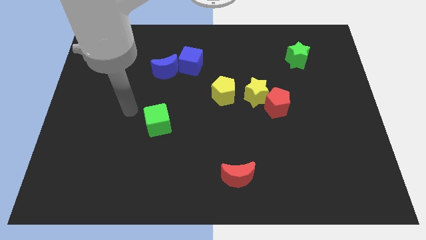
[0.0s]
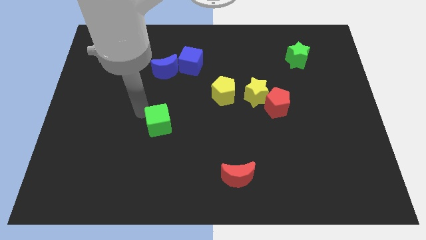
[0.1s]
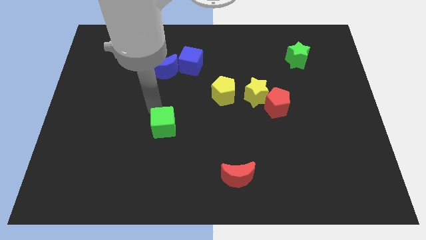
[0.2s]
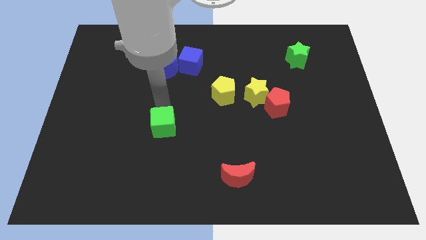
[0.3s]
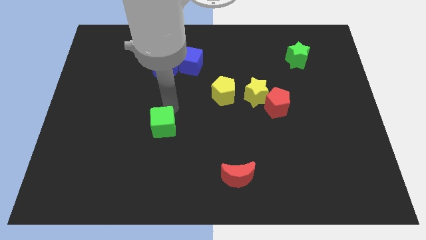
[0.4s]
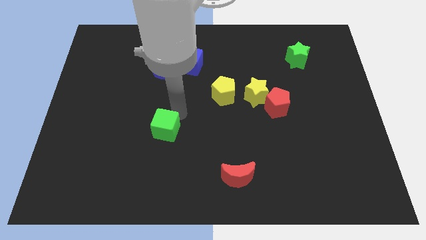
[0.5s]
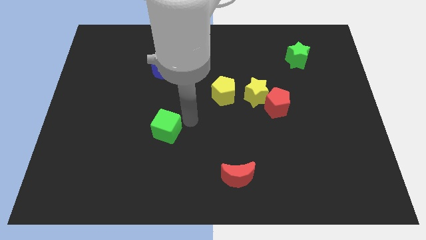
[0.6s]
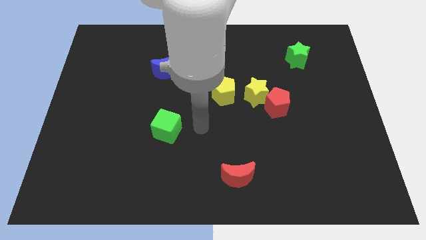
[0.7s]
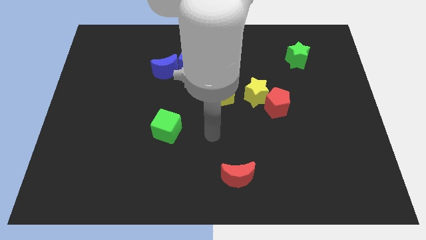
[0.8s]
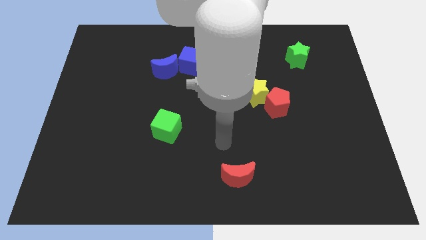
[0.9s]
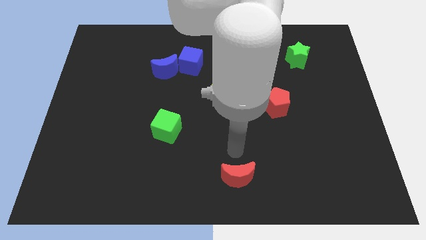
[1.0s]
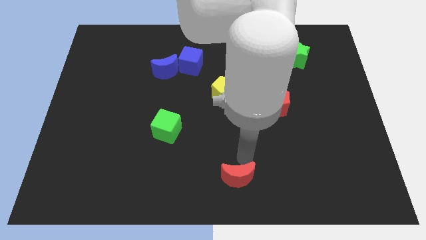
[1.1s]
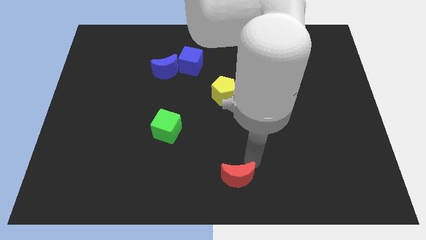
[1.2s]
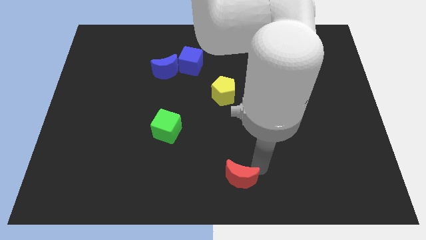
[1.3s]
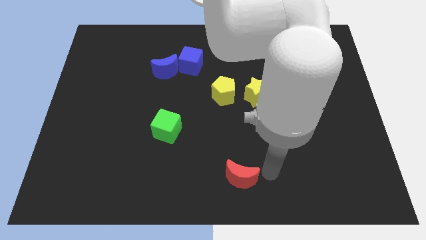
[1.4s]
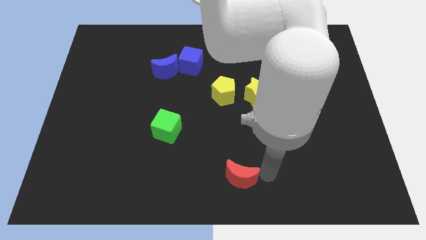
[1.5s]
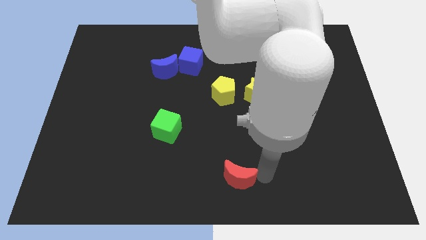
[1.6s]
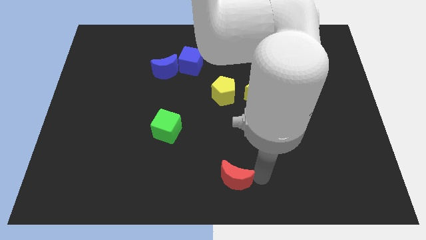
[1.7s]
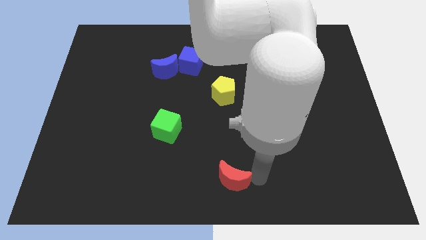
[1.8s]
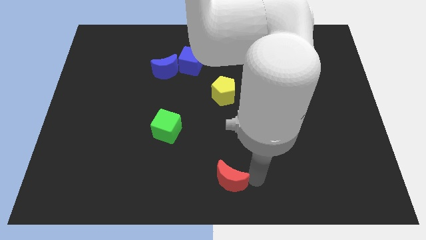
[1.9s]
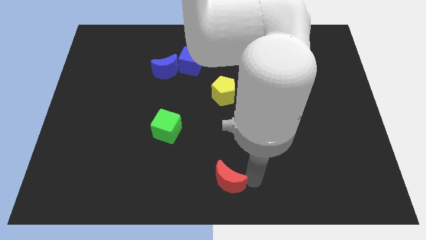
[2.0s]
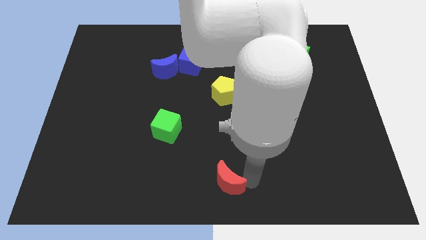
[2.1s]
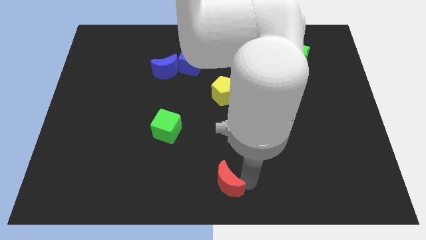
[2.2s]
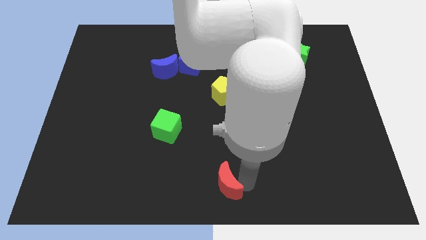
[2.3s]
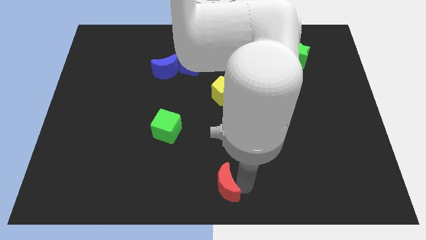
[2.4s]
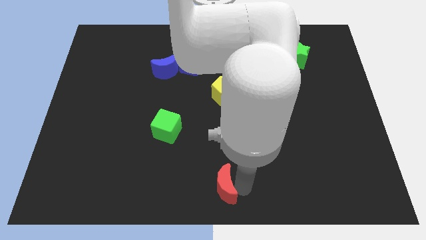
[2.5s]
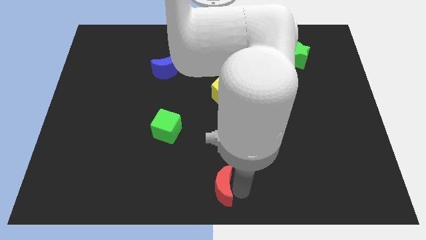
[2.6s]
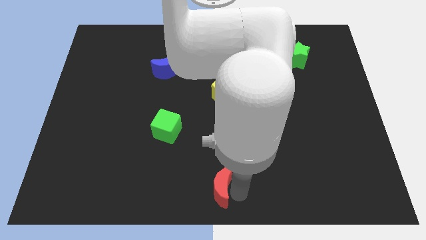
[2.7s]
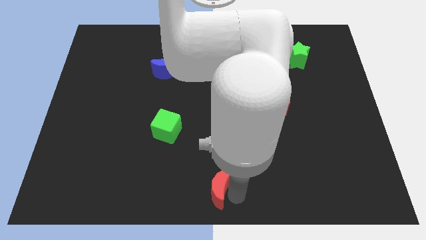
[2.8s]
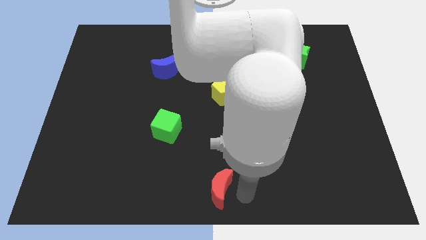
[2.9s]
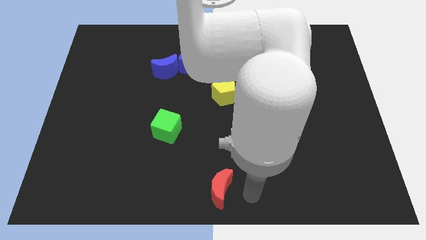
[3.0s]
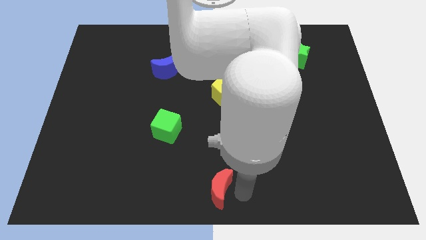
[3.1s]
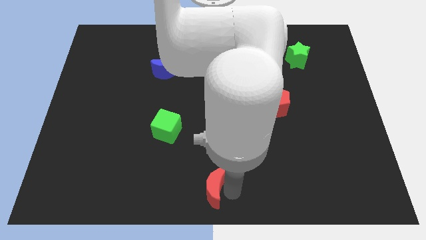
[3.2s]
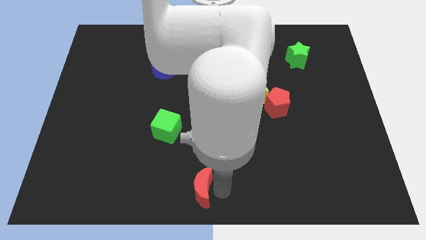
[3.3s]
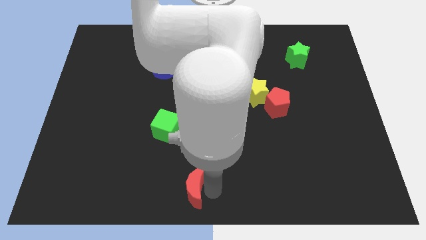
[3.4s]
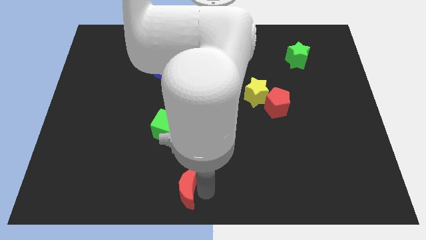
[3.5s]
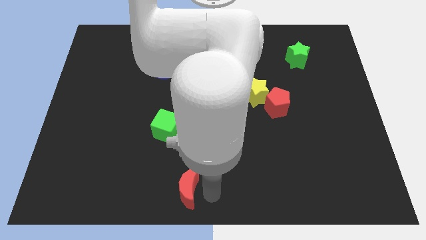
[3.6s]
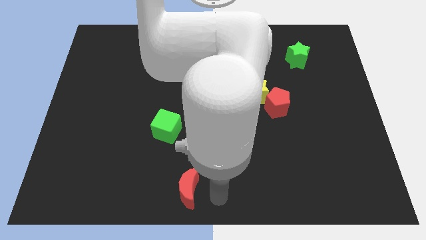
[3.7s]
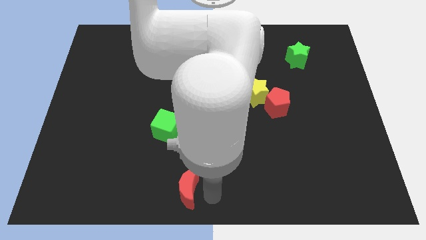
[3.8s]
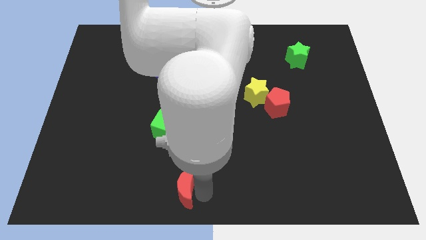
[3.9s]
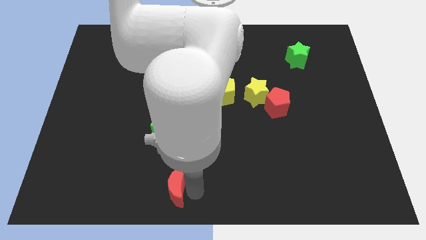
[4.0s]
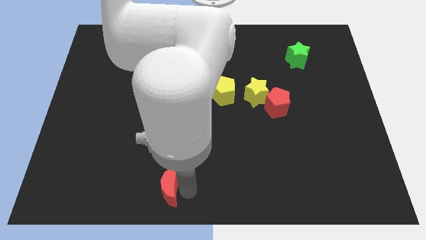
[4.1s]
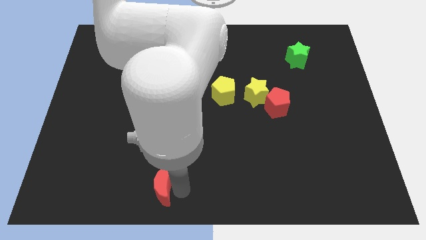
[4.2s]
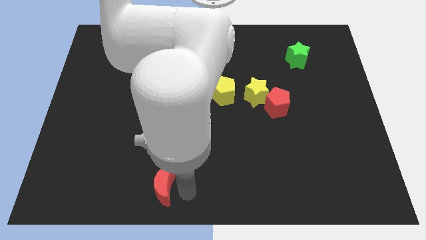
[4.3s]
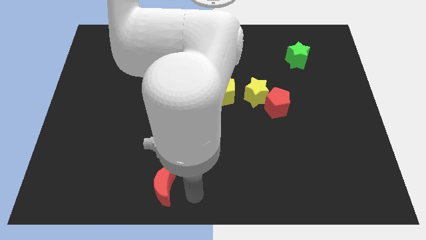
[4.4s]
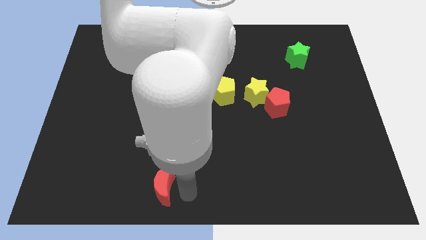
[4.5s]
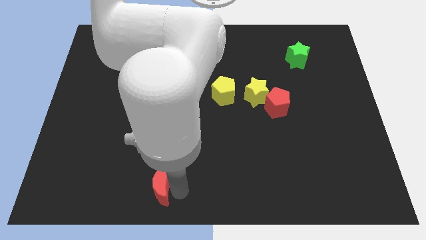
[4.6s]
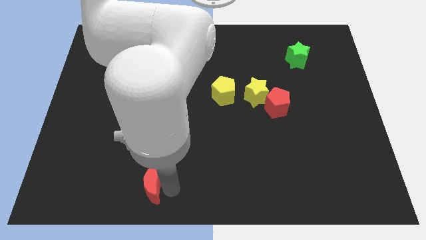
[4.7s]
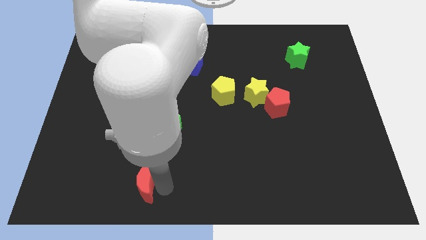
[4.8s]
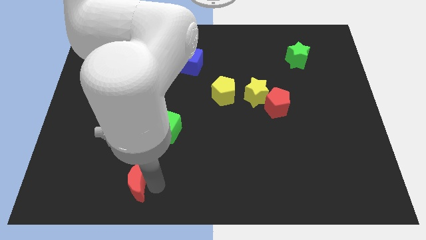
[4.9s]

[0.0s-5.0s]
move the red moon to the left

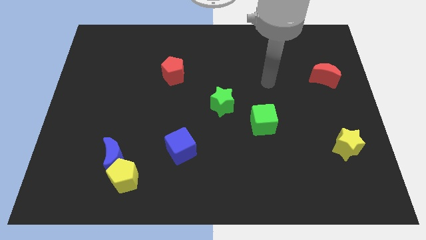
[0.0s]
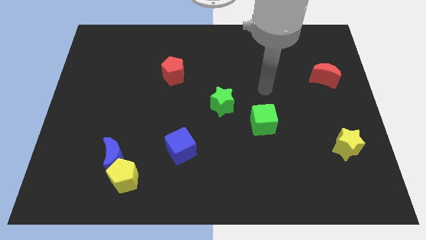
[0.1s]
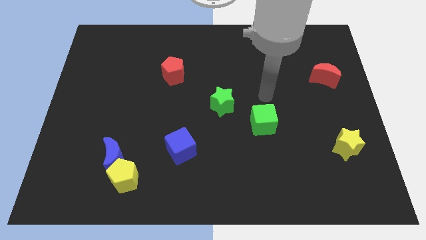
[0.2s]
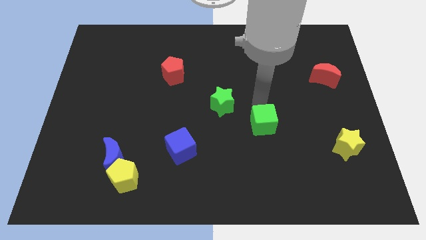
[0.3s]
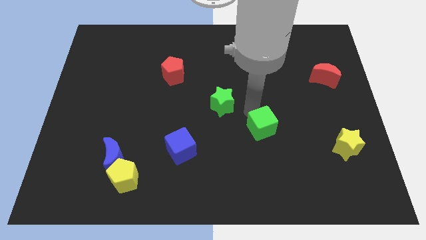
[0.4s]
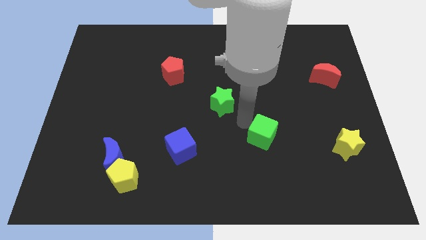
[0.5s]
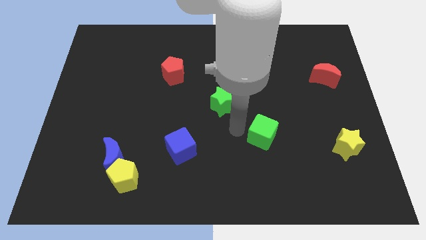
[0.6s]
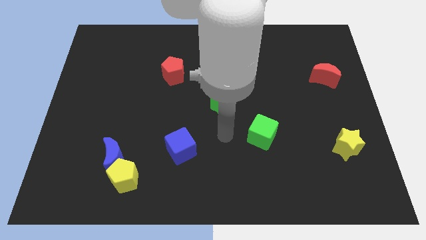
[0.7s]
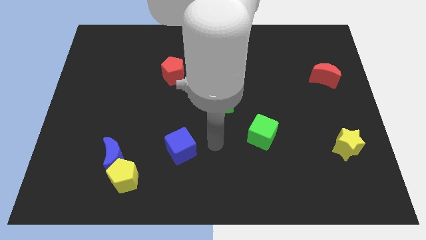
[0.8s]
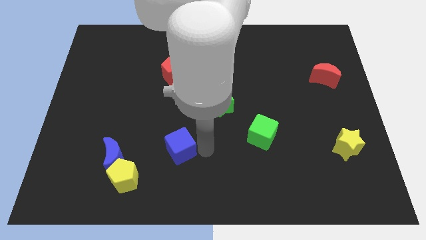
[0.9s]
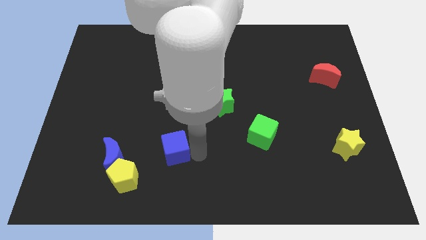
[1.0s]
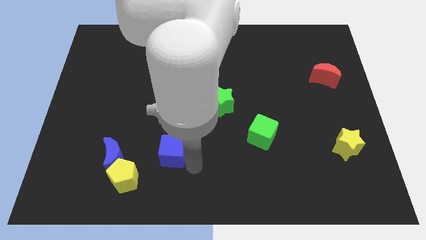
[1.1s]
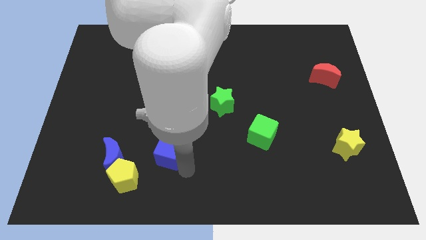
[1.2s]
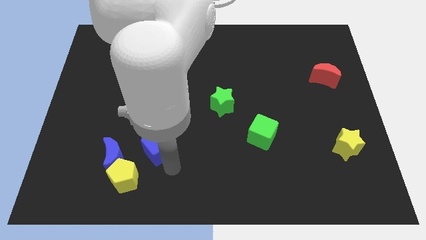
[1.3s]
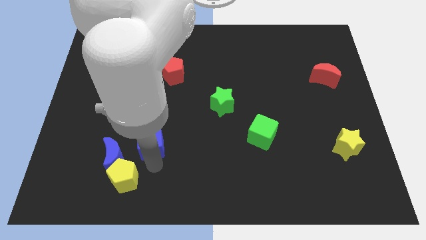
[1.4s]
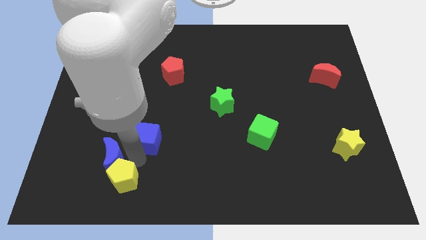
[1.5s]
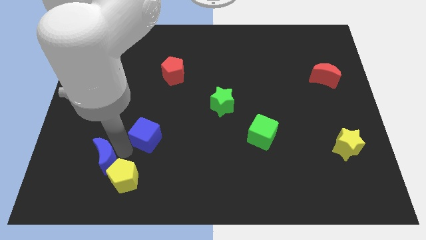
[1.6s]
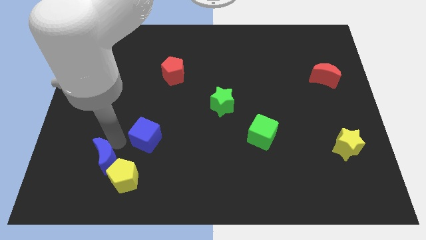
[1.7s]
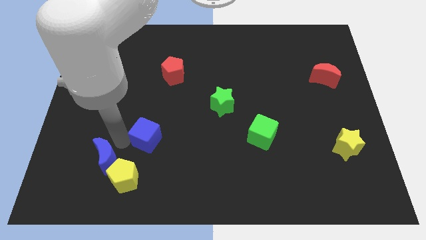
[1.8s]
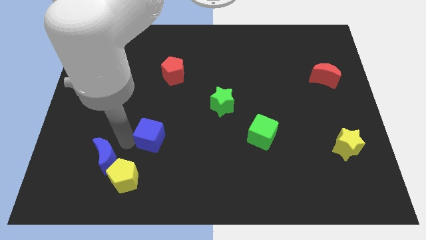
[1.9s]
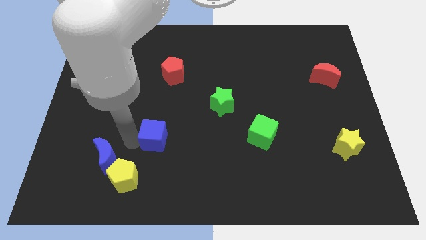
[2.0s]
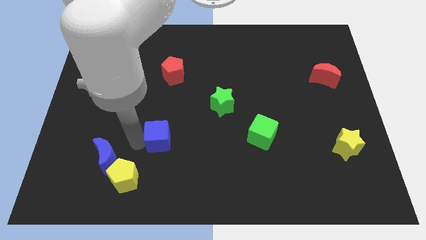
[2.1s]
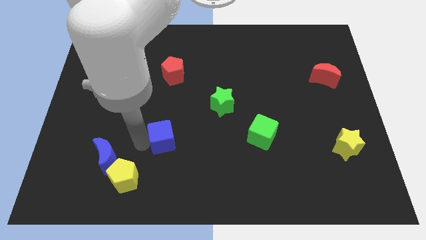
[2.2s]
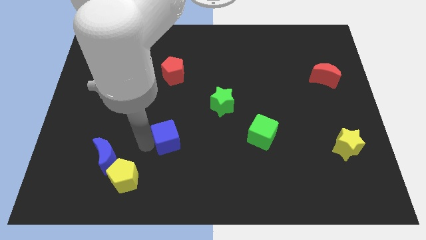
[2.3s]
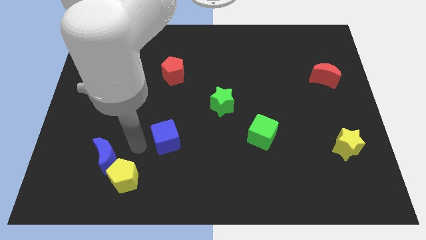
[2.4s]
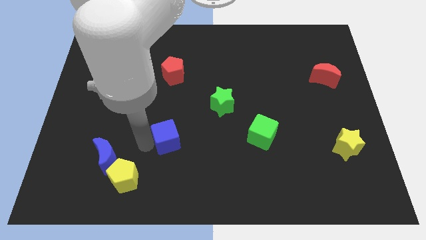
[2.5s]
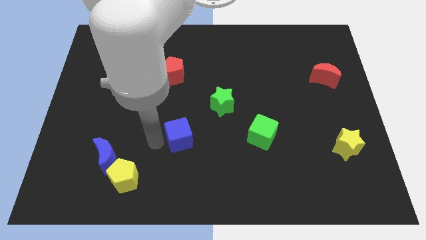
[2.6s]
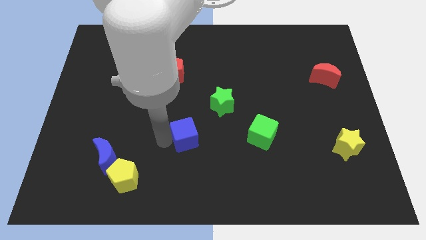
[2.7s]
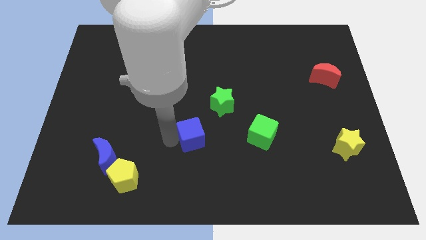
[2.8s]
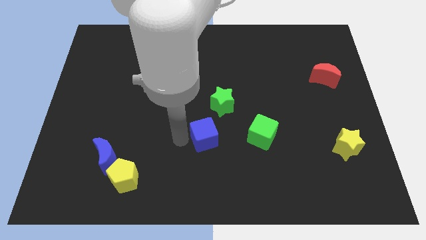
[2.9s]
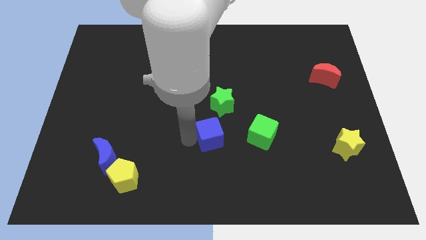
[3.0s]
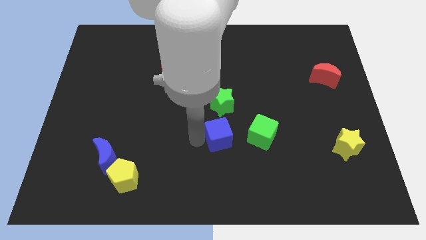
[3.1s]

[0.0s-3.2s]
move the blue cube upwards and to the right diagonally a little bit

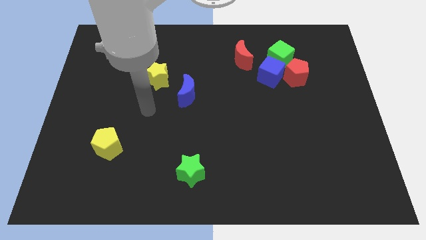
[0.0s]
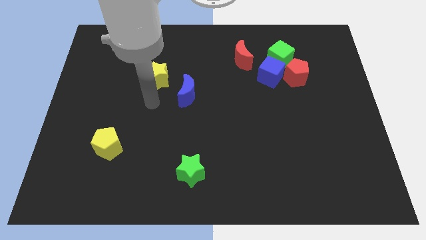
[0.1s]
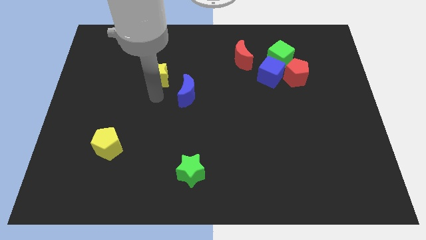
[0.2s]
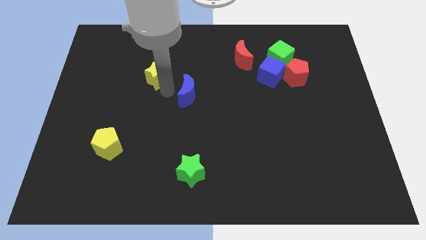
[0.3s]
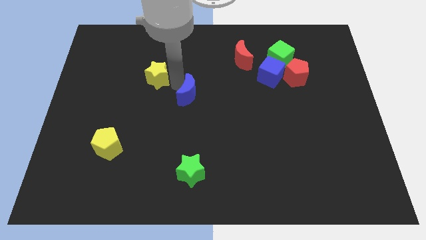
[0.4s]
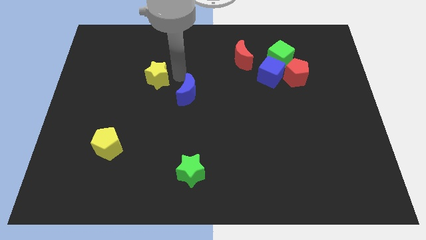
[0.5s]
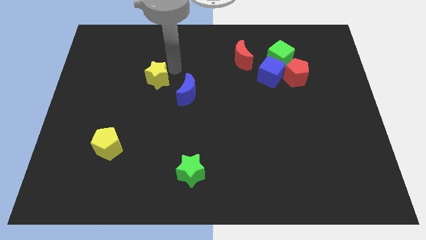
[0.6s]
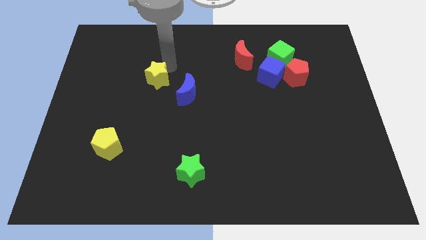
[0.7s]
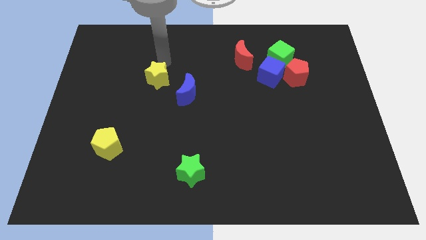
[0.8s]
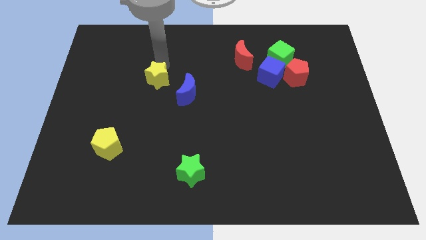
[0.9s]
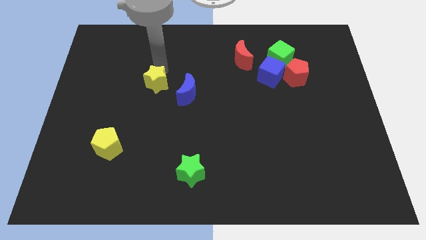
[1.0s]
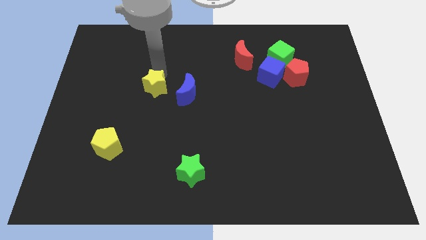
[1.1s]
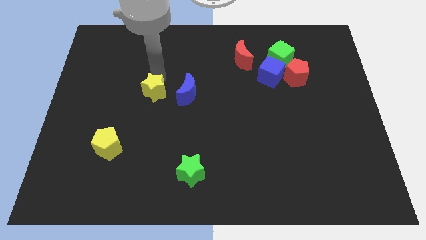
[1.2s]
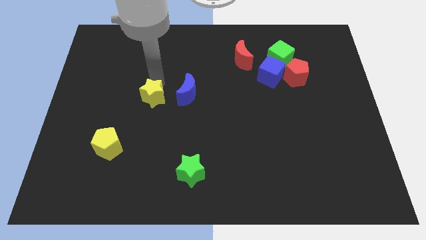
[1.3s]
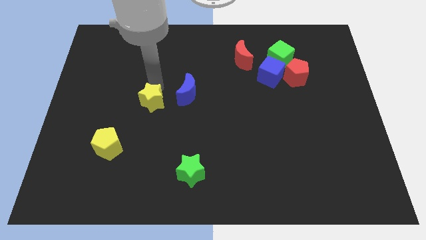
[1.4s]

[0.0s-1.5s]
move the yellow star down a little
